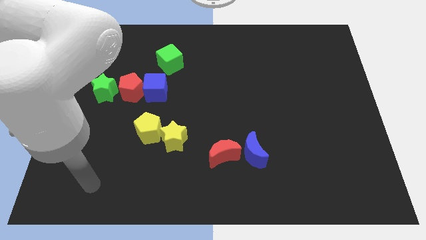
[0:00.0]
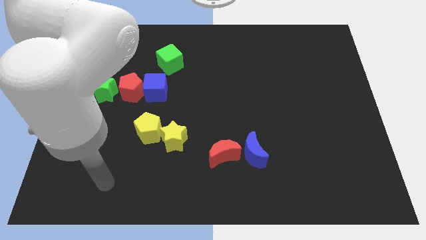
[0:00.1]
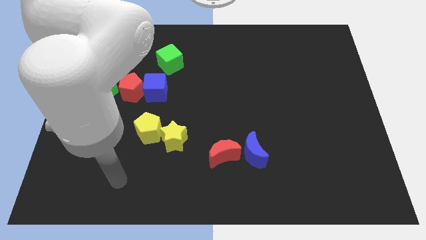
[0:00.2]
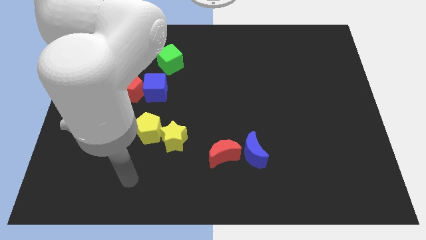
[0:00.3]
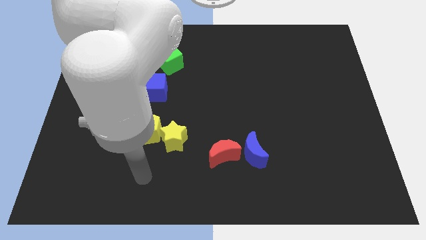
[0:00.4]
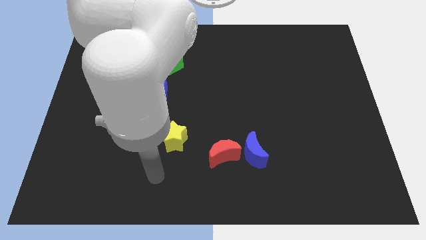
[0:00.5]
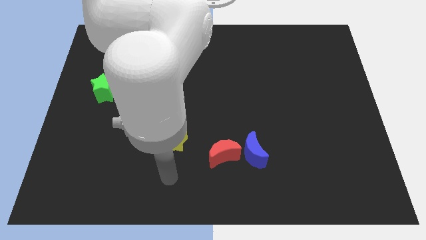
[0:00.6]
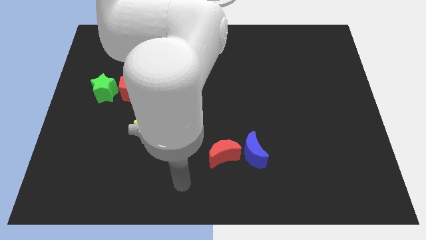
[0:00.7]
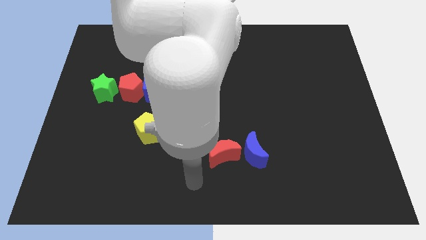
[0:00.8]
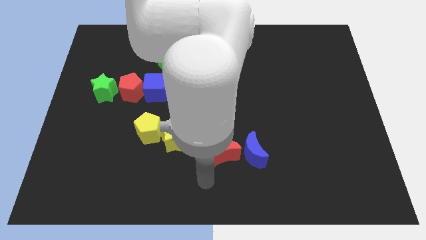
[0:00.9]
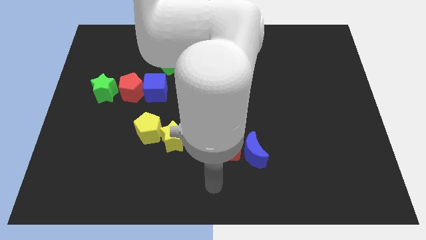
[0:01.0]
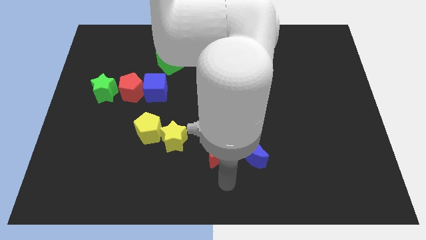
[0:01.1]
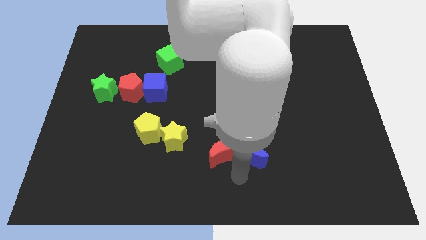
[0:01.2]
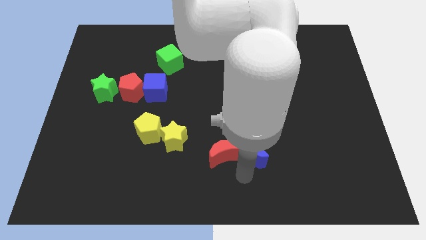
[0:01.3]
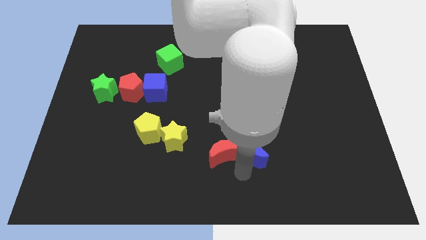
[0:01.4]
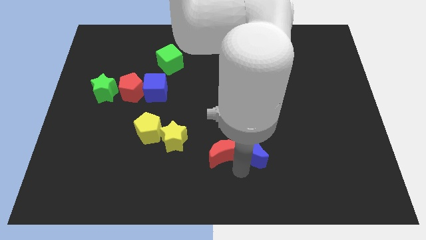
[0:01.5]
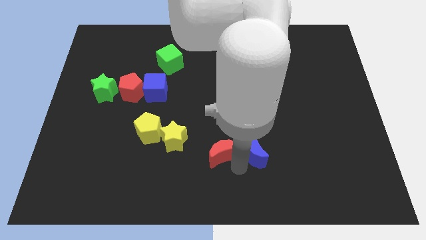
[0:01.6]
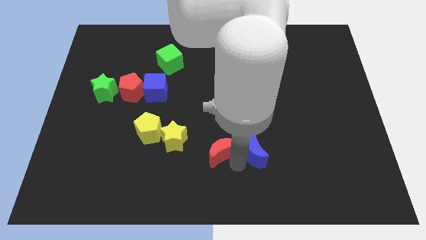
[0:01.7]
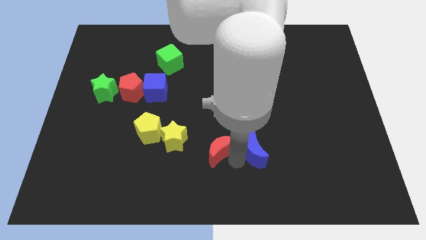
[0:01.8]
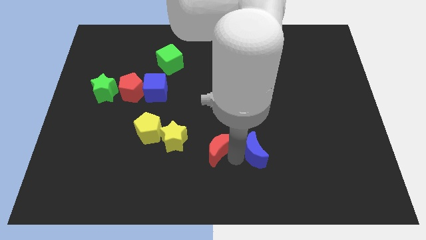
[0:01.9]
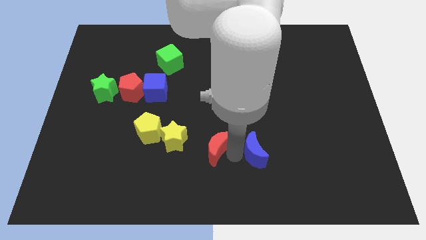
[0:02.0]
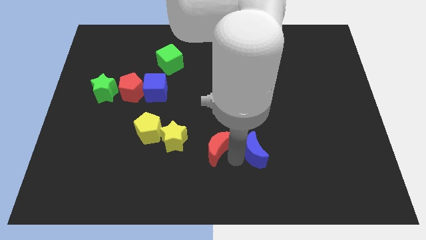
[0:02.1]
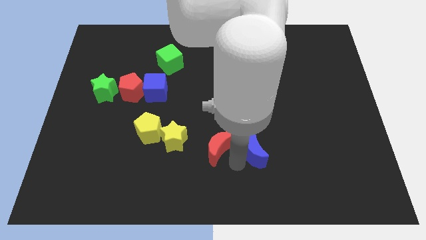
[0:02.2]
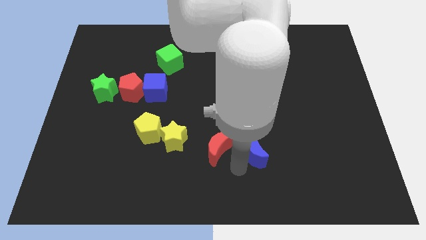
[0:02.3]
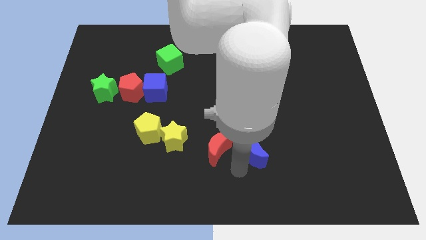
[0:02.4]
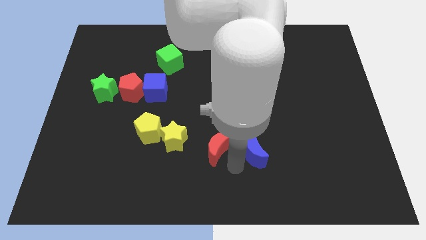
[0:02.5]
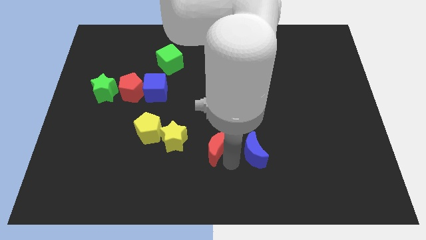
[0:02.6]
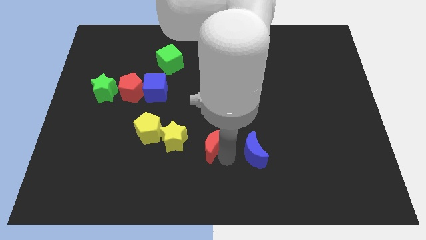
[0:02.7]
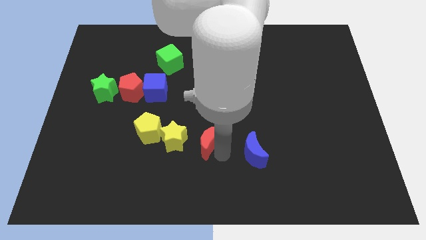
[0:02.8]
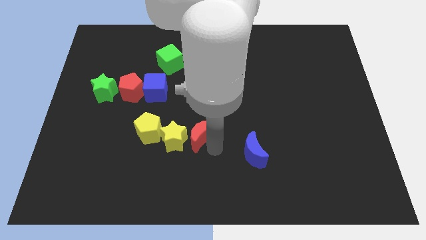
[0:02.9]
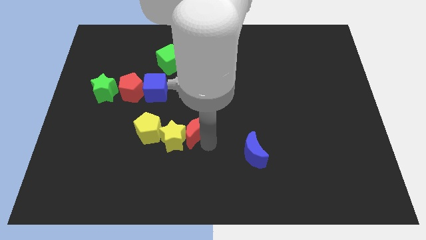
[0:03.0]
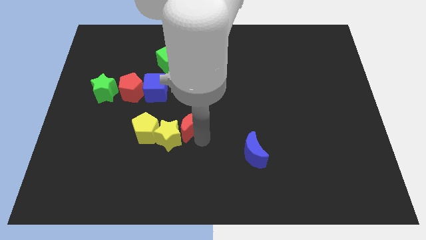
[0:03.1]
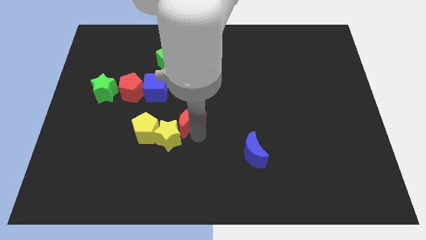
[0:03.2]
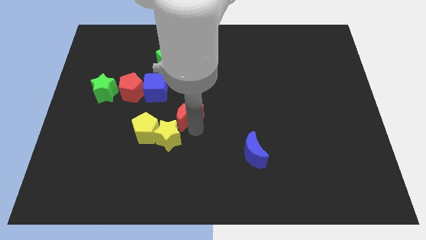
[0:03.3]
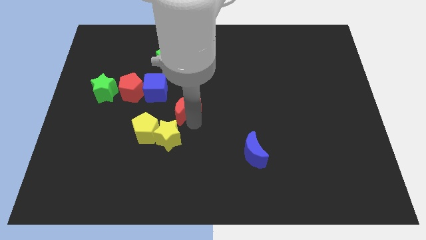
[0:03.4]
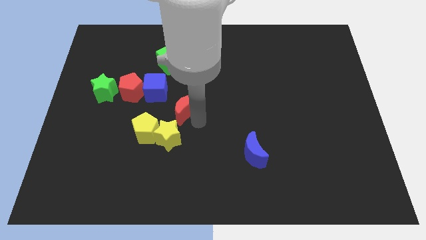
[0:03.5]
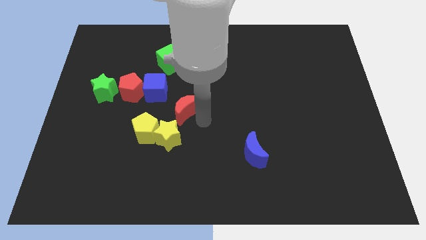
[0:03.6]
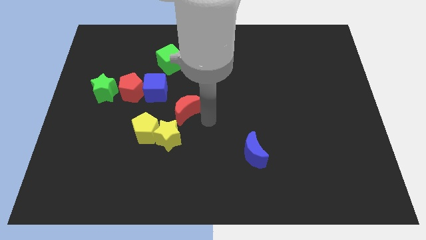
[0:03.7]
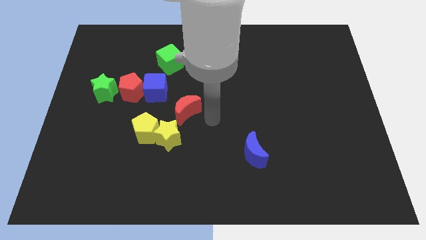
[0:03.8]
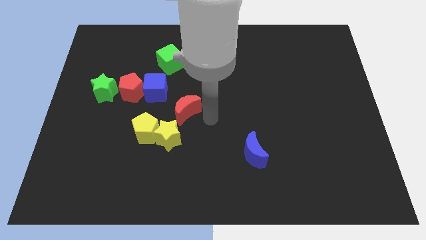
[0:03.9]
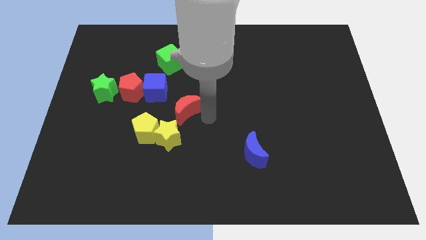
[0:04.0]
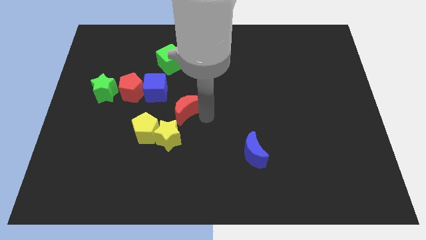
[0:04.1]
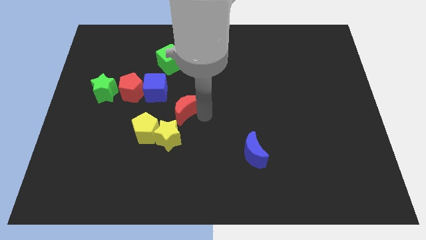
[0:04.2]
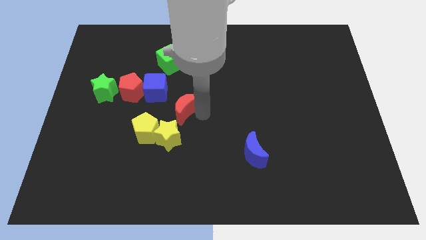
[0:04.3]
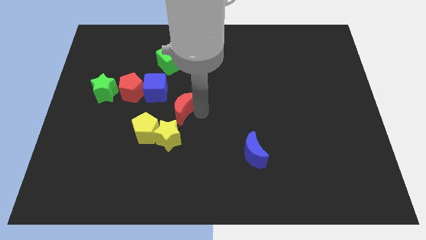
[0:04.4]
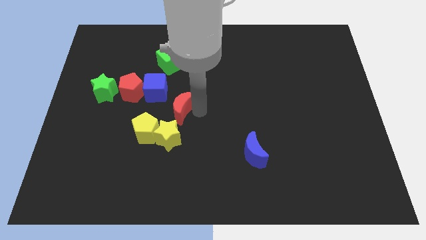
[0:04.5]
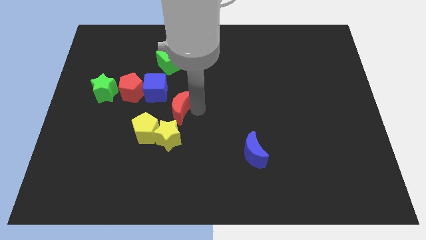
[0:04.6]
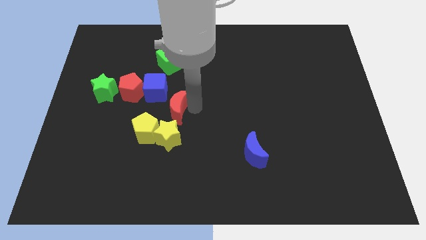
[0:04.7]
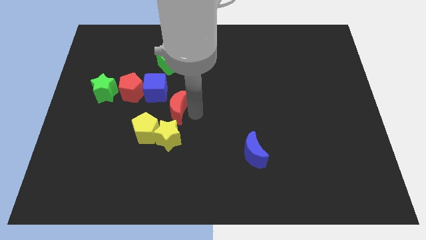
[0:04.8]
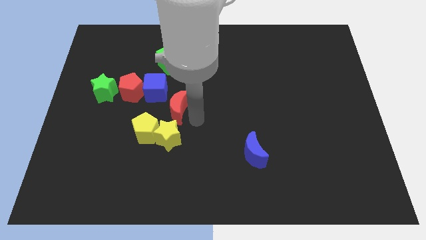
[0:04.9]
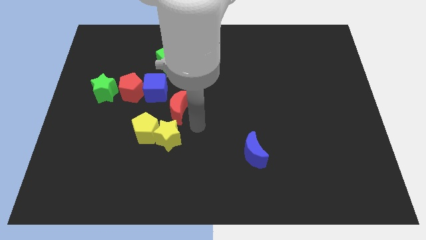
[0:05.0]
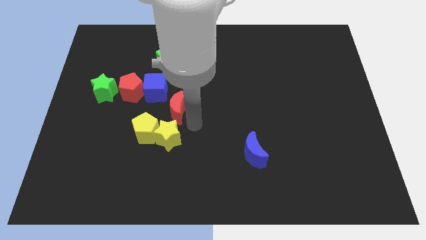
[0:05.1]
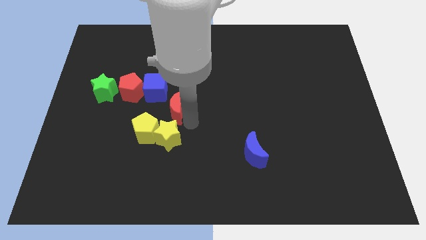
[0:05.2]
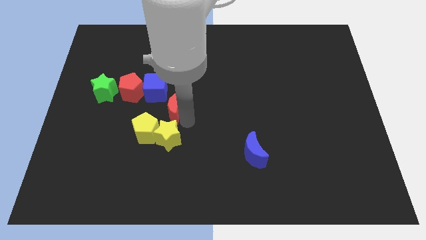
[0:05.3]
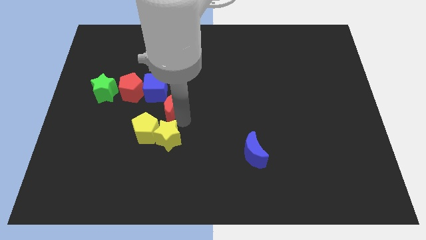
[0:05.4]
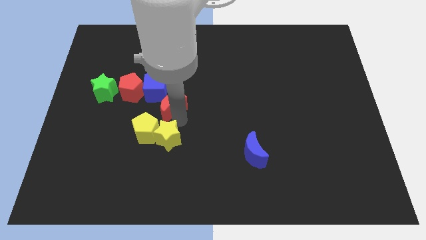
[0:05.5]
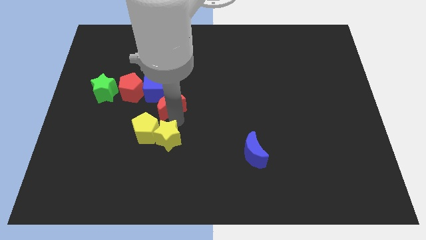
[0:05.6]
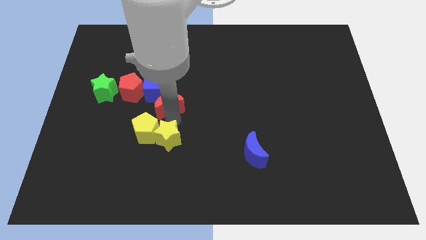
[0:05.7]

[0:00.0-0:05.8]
slide the red moon to the blue cube

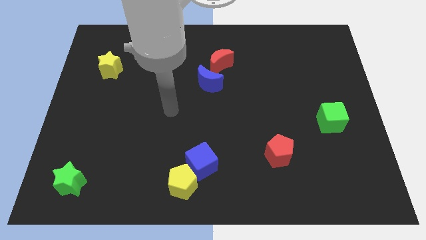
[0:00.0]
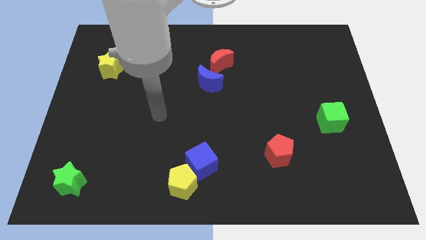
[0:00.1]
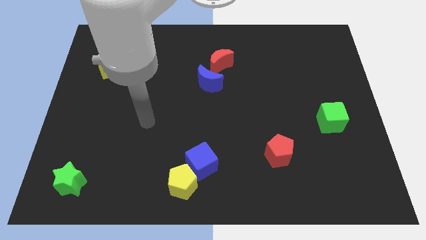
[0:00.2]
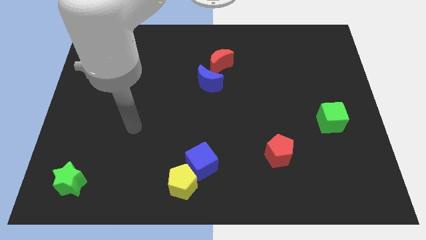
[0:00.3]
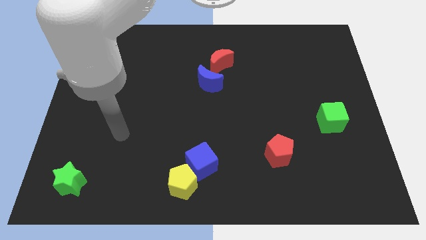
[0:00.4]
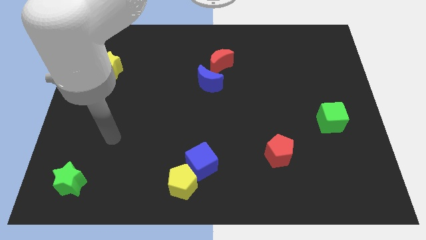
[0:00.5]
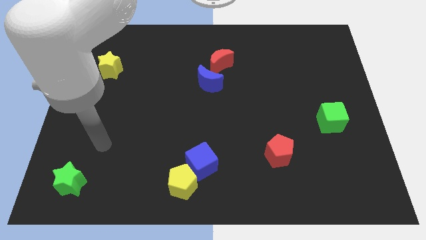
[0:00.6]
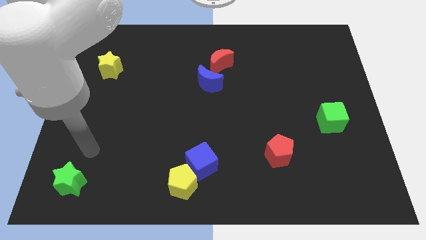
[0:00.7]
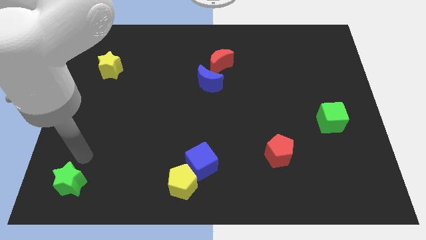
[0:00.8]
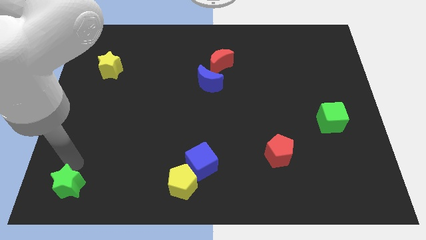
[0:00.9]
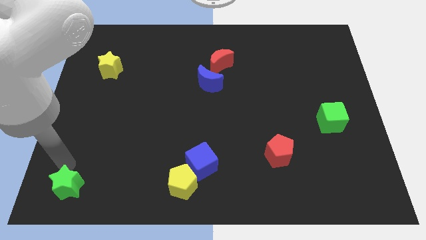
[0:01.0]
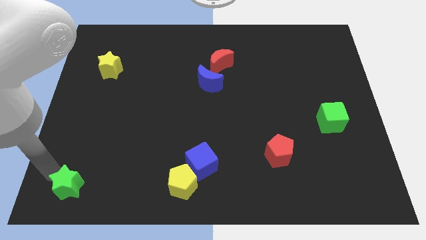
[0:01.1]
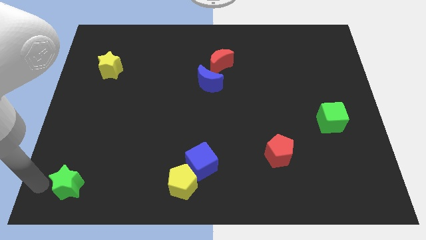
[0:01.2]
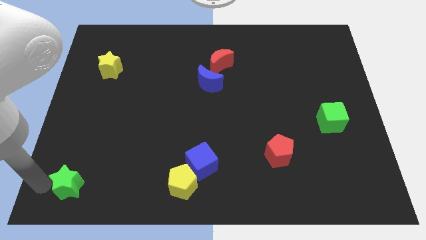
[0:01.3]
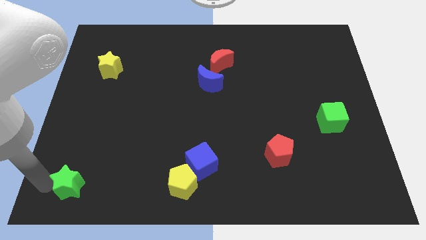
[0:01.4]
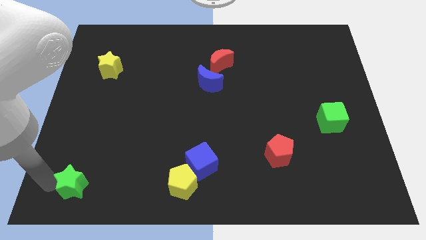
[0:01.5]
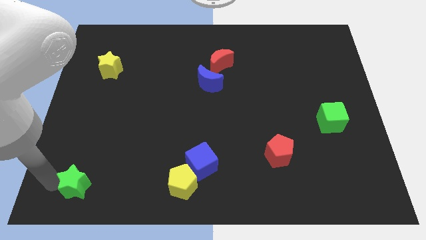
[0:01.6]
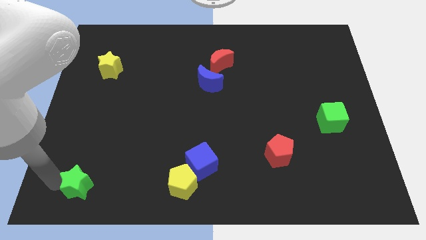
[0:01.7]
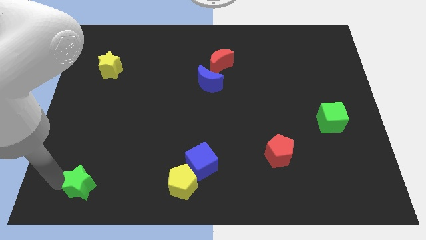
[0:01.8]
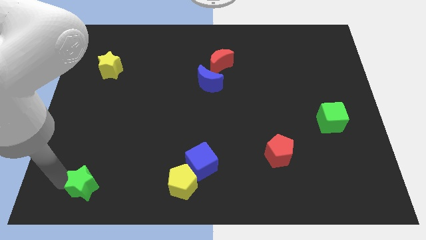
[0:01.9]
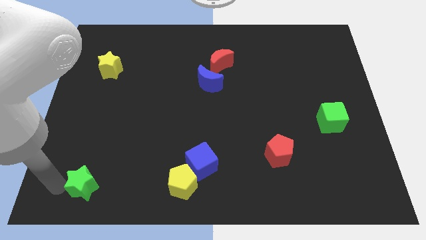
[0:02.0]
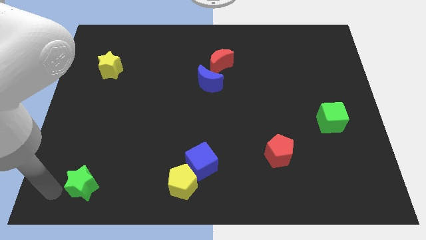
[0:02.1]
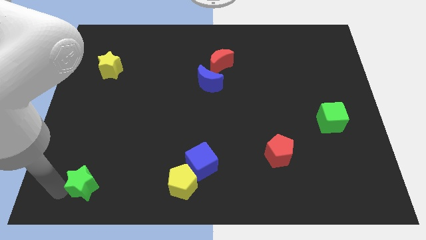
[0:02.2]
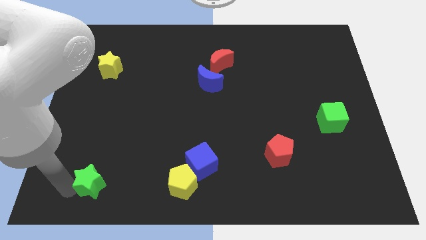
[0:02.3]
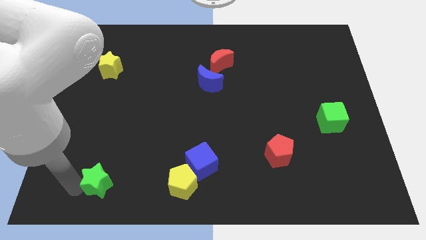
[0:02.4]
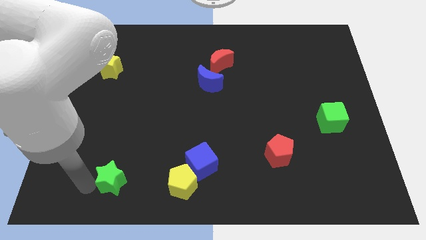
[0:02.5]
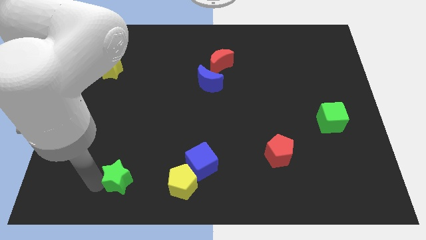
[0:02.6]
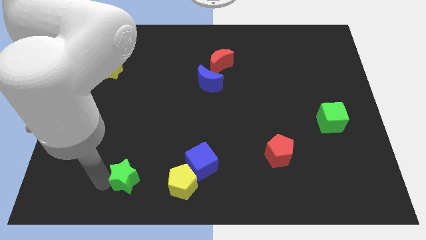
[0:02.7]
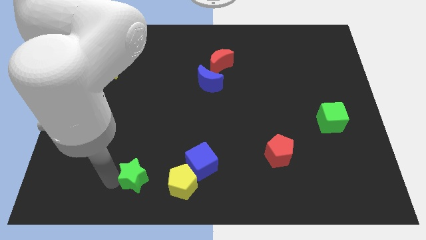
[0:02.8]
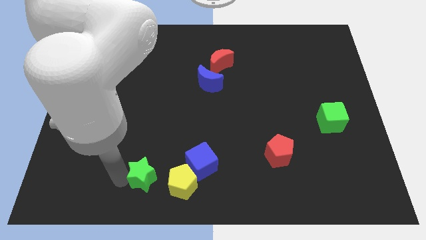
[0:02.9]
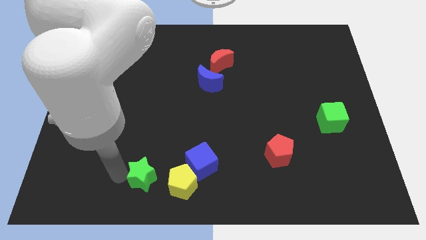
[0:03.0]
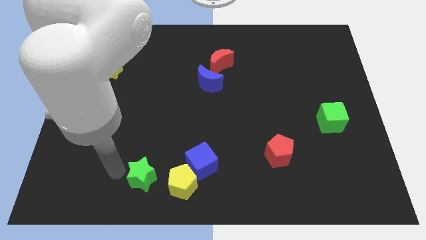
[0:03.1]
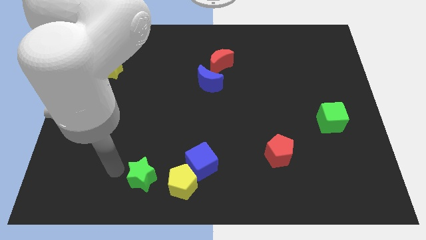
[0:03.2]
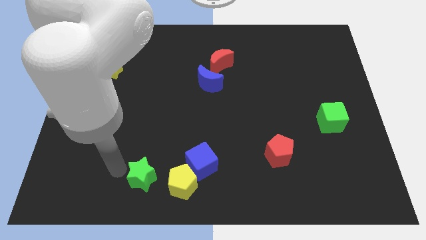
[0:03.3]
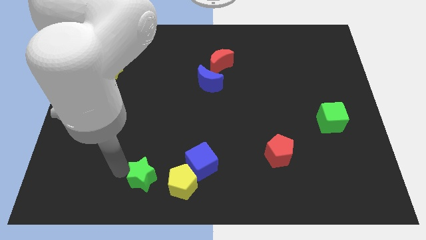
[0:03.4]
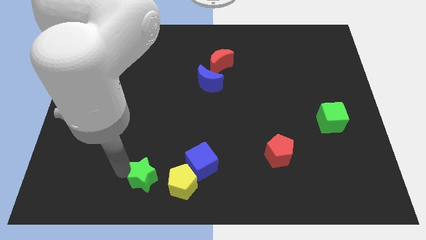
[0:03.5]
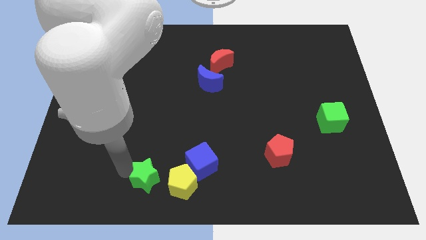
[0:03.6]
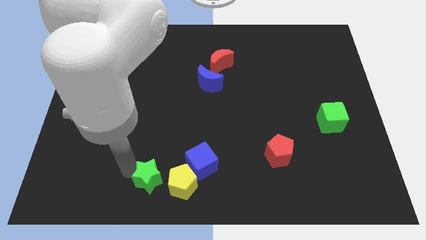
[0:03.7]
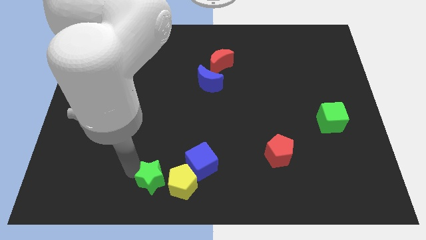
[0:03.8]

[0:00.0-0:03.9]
slide the green star towards the yellow pentagon
